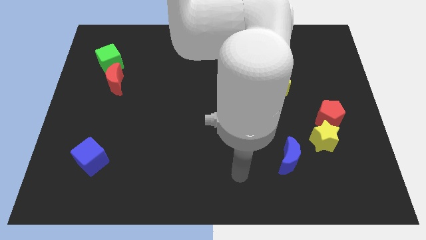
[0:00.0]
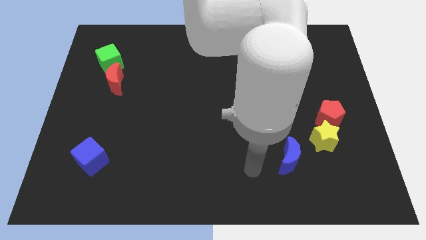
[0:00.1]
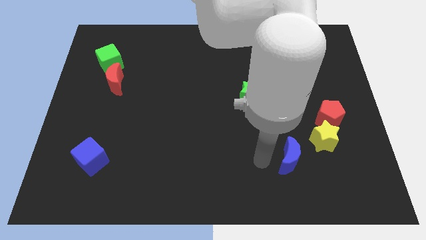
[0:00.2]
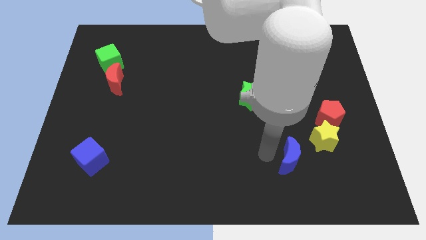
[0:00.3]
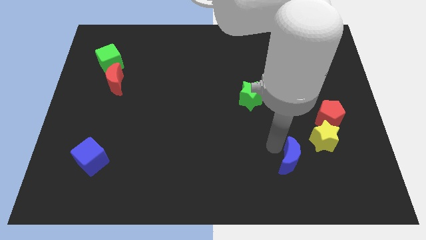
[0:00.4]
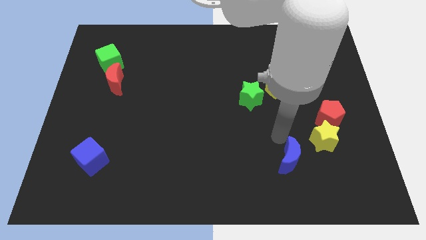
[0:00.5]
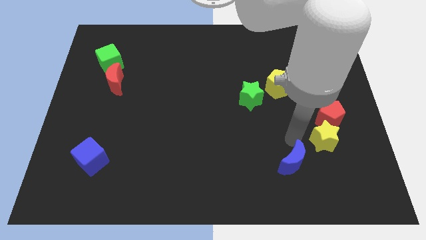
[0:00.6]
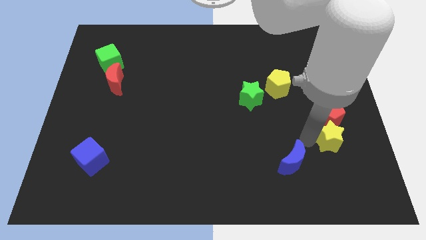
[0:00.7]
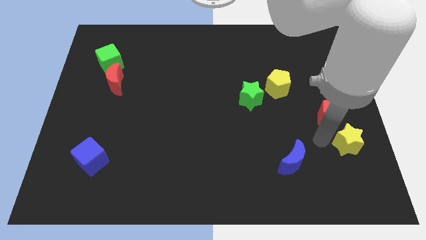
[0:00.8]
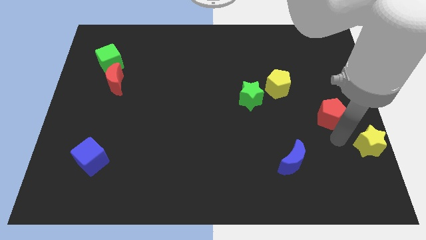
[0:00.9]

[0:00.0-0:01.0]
pull the red pentagon apart from the yellow star

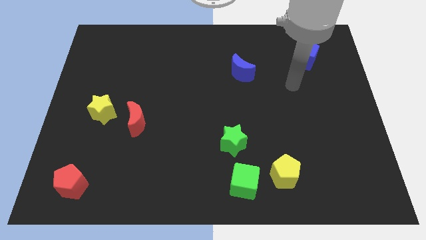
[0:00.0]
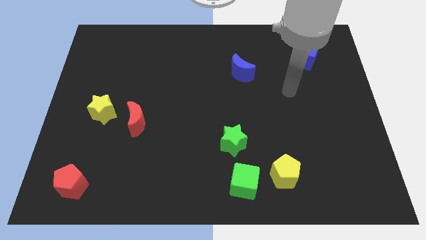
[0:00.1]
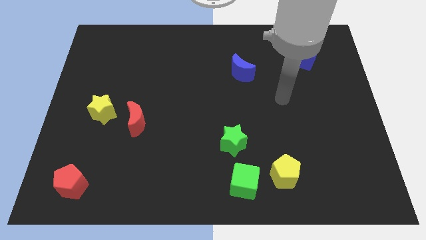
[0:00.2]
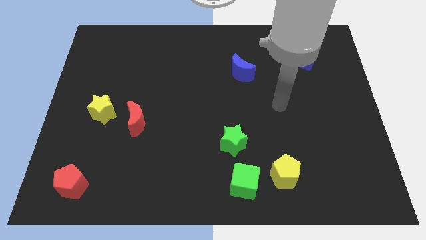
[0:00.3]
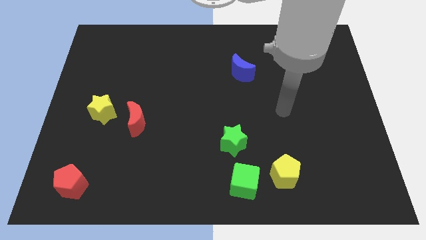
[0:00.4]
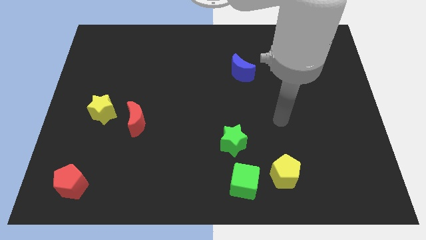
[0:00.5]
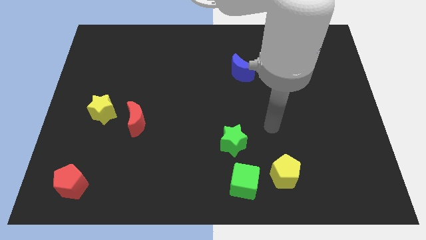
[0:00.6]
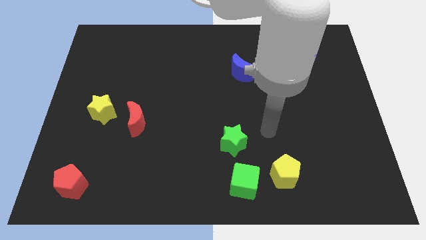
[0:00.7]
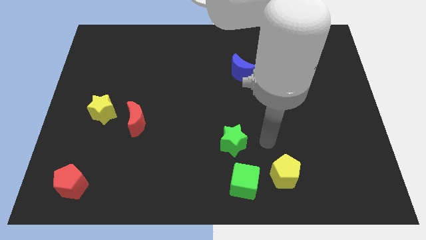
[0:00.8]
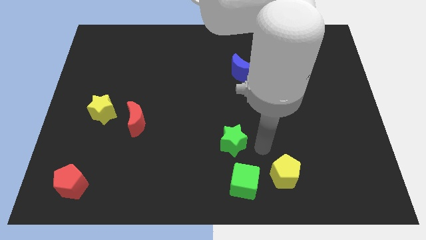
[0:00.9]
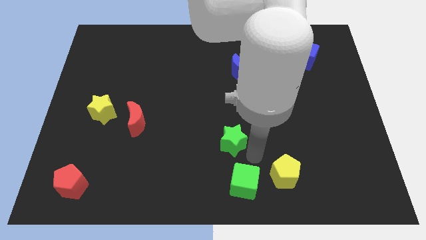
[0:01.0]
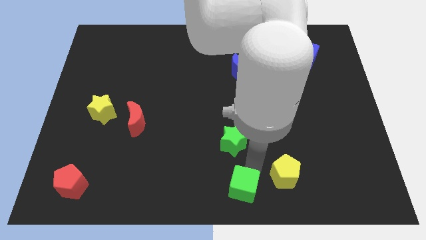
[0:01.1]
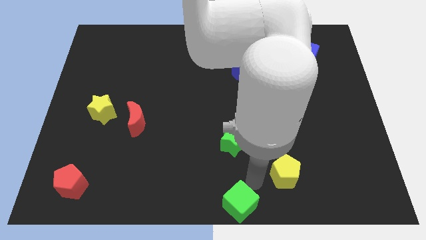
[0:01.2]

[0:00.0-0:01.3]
move the yellow pentagon away from the green cube

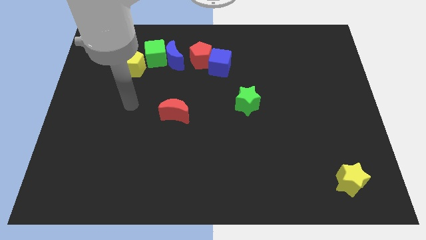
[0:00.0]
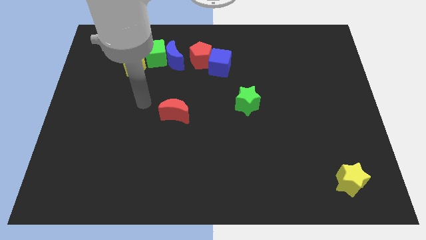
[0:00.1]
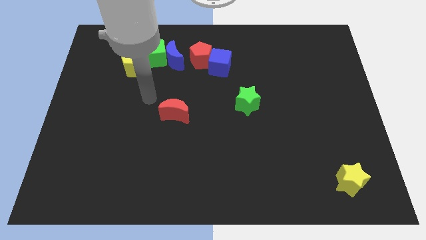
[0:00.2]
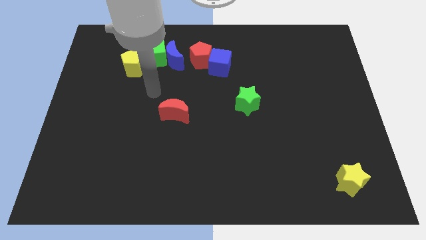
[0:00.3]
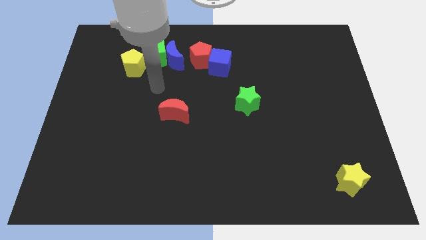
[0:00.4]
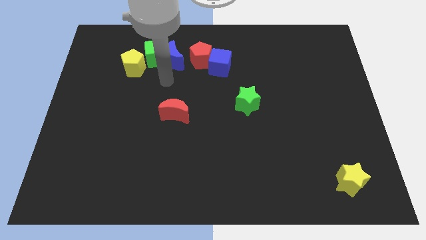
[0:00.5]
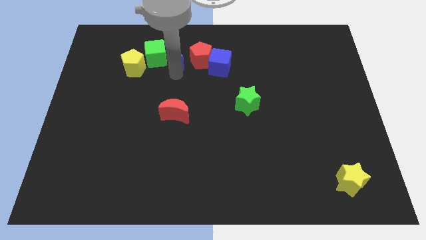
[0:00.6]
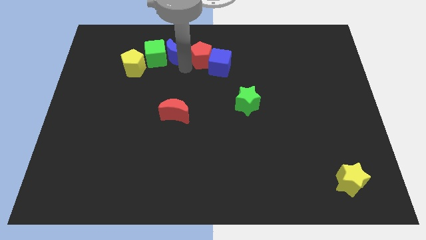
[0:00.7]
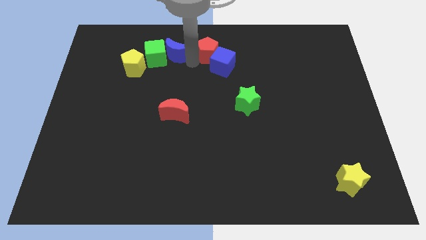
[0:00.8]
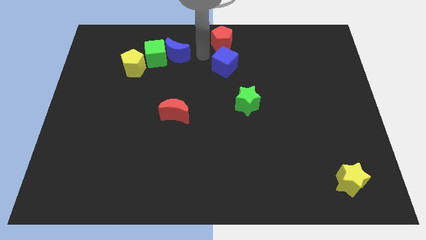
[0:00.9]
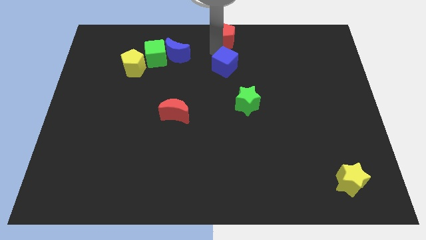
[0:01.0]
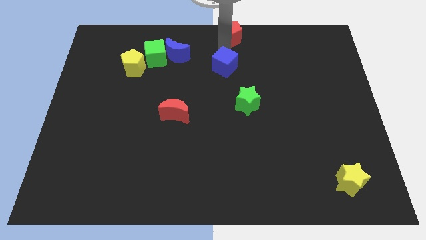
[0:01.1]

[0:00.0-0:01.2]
pull the blue cube apart from the red pentagon

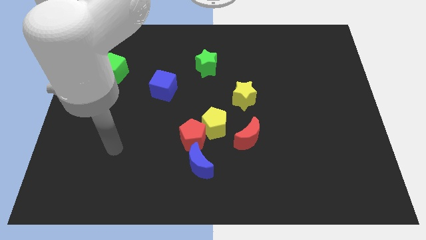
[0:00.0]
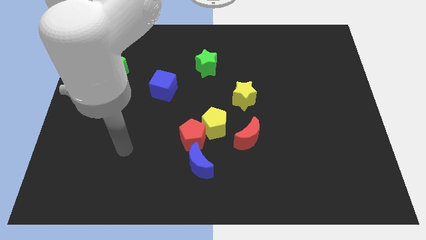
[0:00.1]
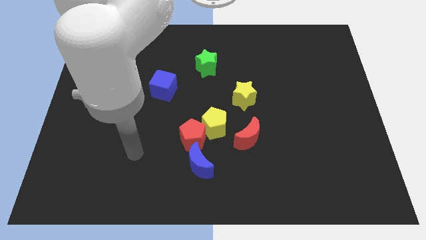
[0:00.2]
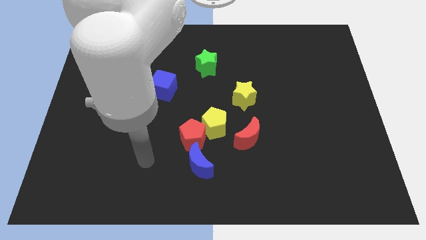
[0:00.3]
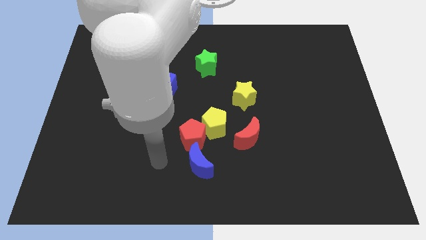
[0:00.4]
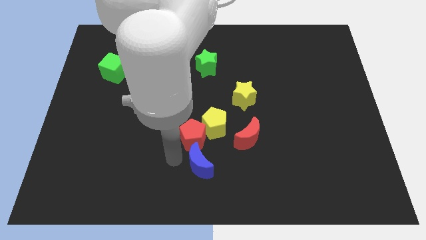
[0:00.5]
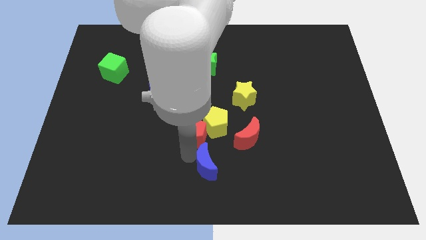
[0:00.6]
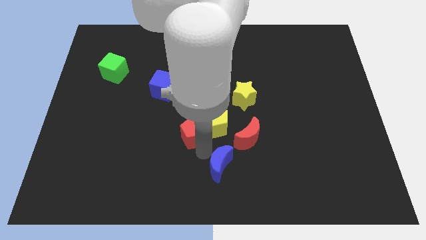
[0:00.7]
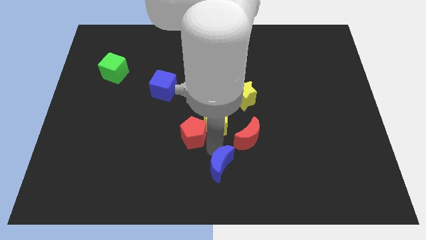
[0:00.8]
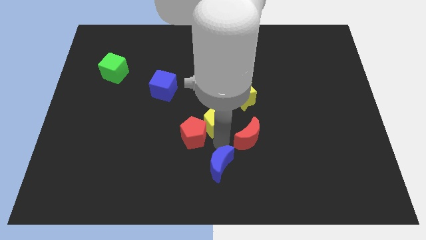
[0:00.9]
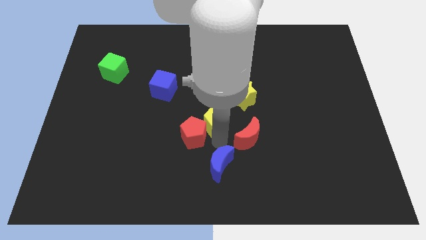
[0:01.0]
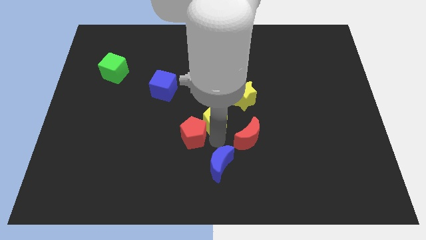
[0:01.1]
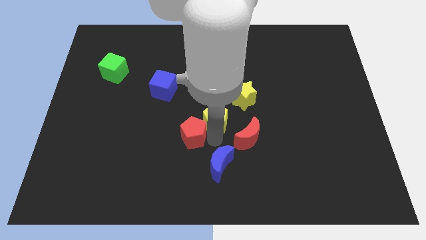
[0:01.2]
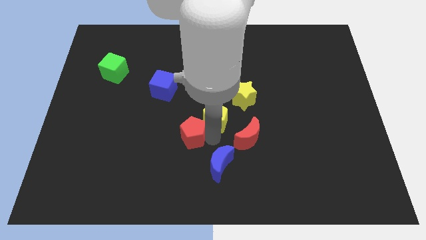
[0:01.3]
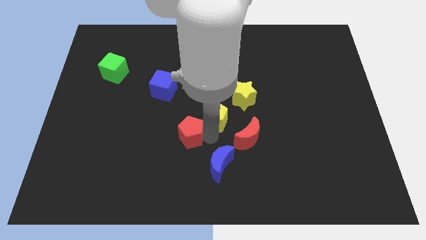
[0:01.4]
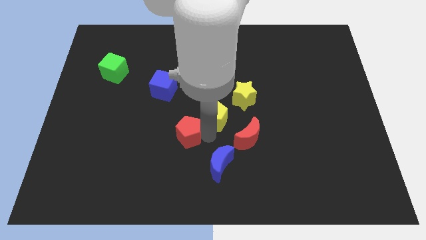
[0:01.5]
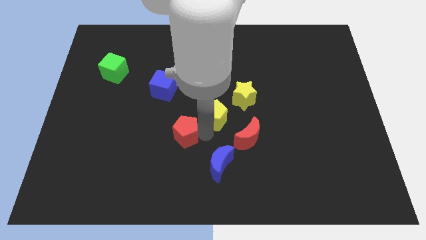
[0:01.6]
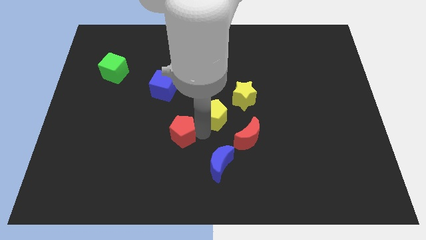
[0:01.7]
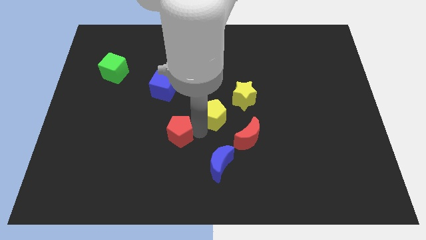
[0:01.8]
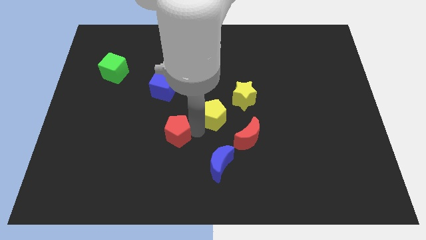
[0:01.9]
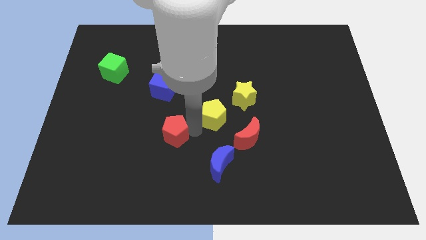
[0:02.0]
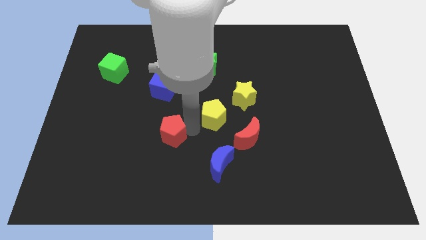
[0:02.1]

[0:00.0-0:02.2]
separate the red pentagon from the yellow pentagon and blue moon

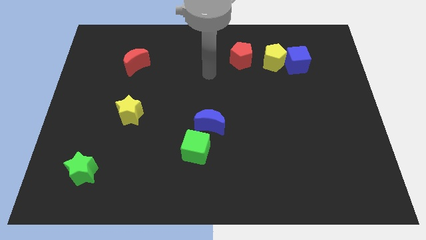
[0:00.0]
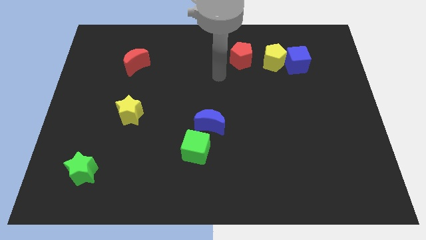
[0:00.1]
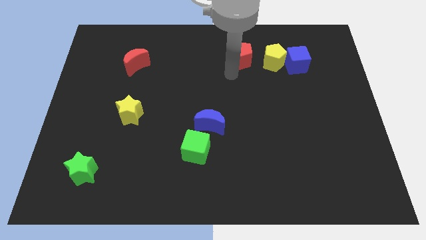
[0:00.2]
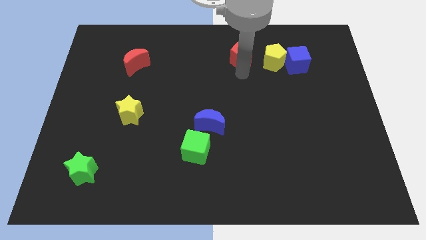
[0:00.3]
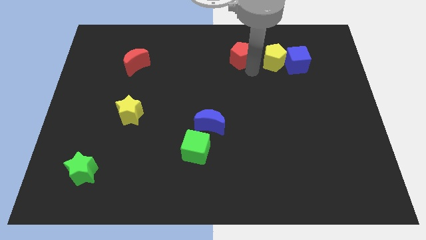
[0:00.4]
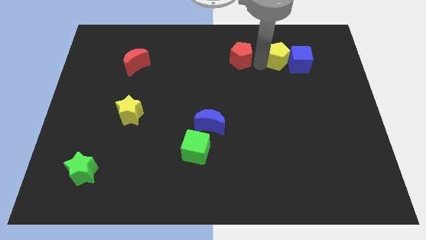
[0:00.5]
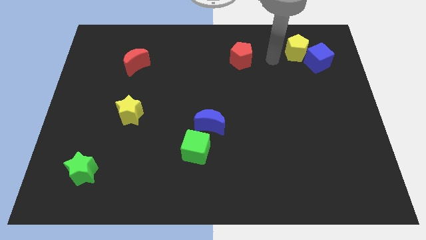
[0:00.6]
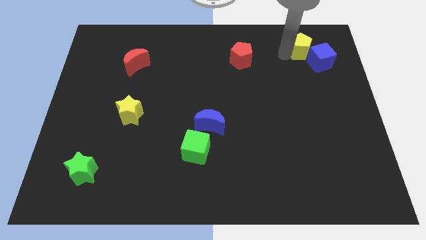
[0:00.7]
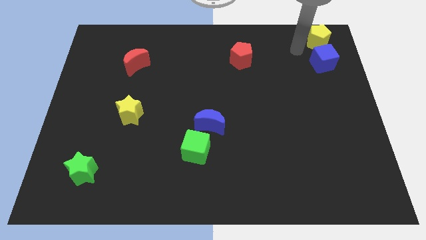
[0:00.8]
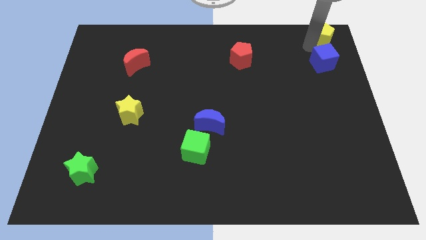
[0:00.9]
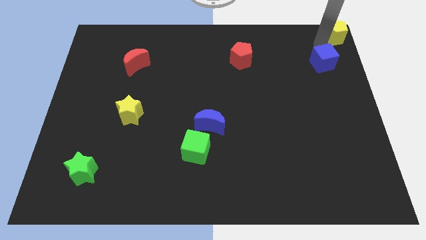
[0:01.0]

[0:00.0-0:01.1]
move the blue cube away from the yellow pentagon

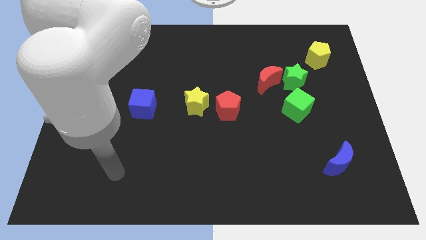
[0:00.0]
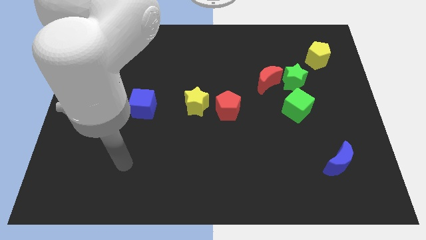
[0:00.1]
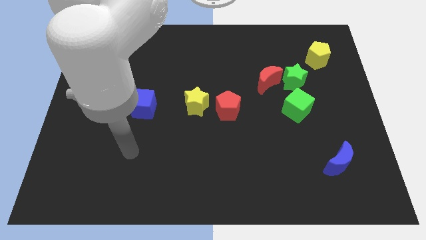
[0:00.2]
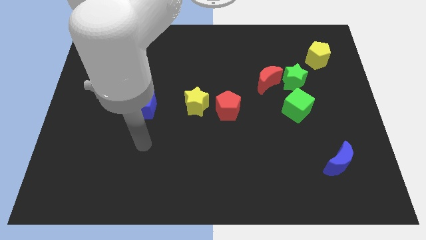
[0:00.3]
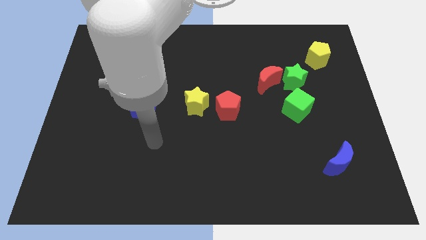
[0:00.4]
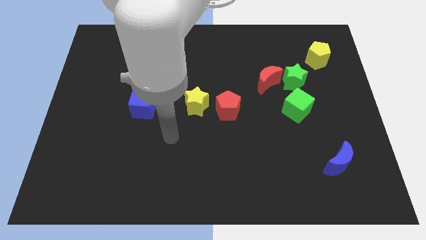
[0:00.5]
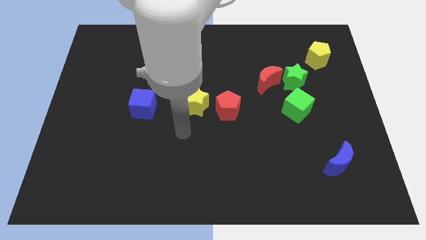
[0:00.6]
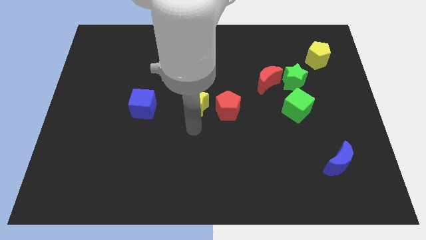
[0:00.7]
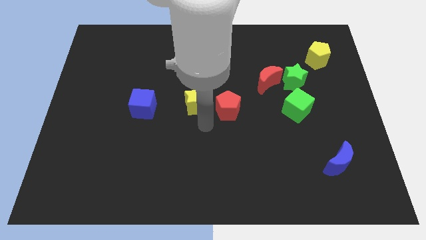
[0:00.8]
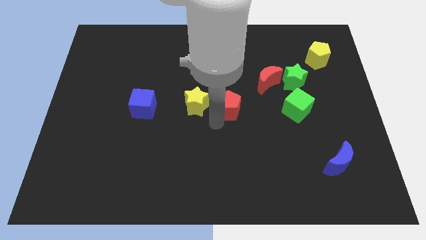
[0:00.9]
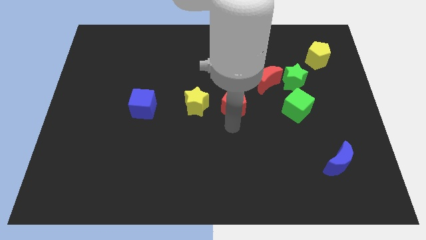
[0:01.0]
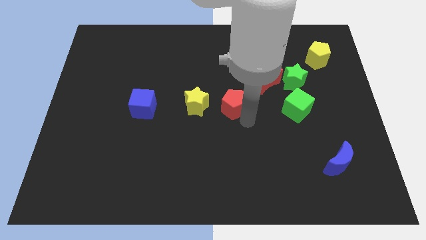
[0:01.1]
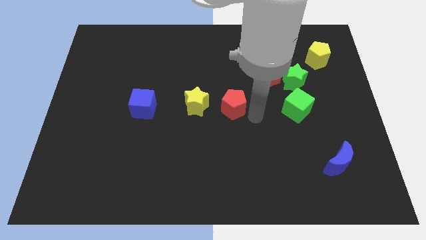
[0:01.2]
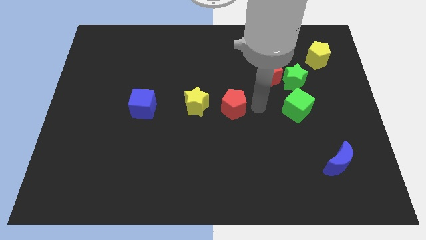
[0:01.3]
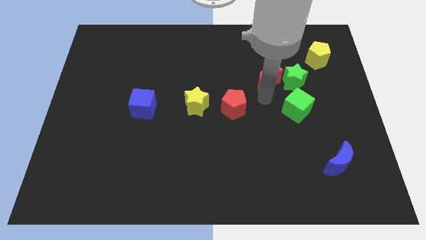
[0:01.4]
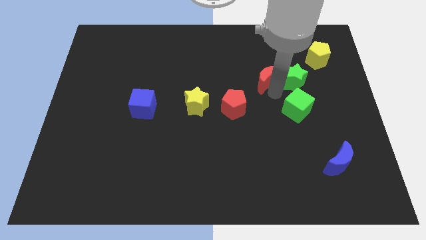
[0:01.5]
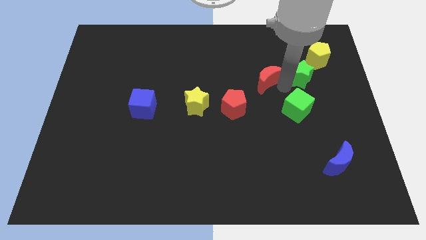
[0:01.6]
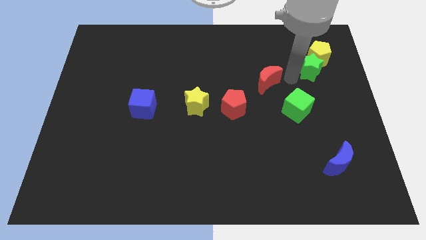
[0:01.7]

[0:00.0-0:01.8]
separate the red moon from the green star

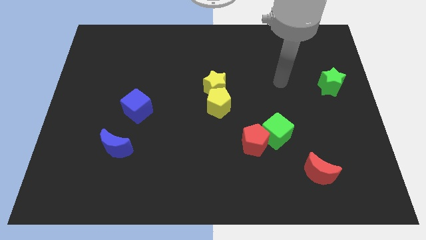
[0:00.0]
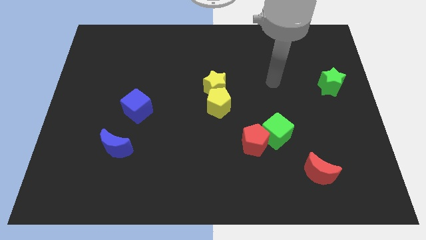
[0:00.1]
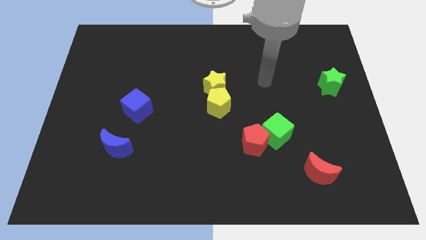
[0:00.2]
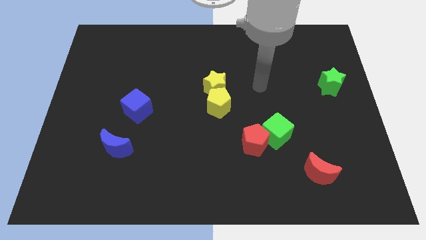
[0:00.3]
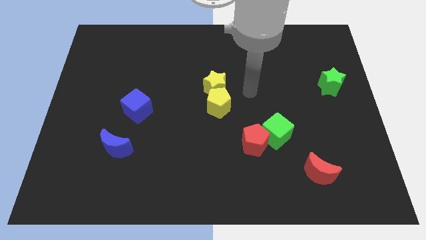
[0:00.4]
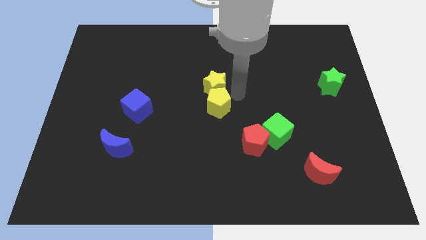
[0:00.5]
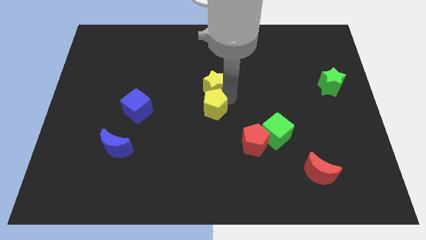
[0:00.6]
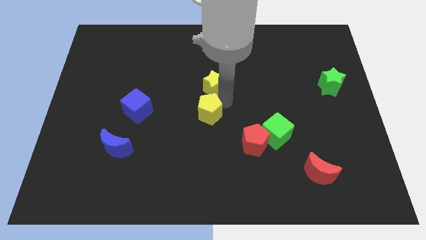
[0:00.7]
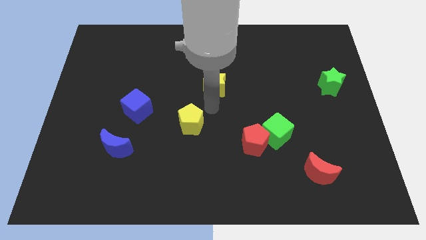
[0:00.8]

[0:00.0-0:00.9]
move the yellow star away from the yellow pentagon
